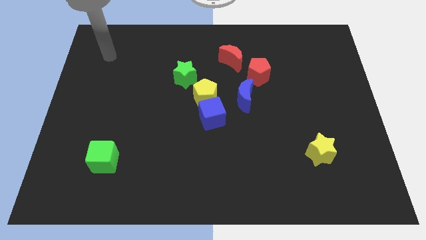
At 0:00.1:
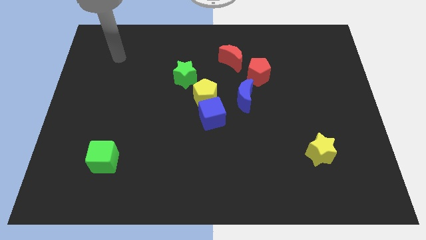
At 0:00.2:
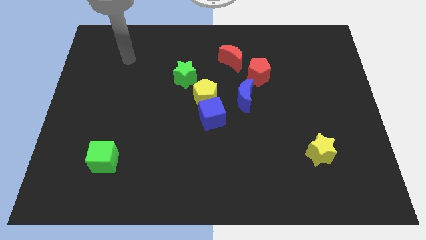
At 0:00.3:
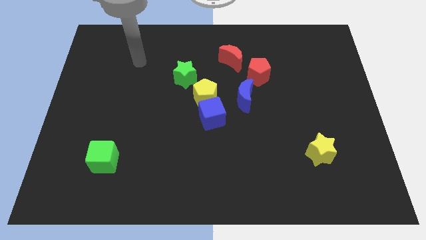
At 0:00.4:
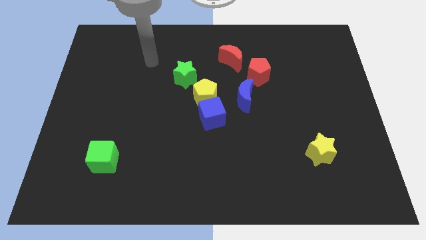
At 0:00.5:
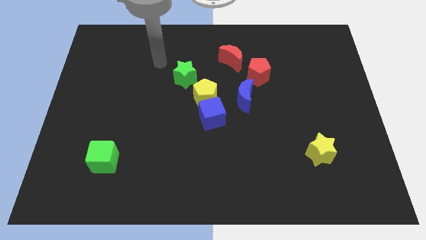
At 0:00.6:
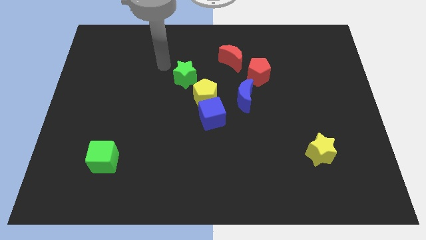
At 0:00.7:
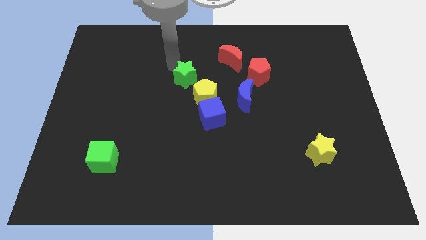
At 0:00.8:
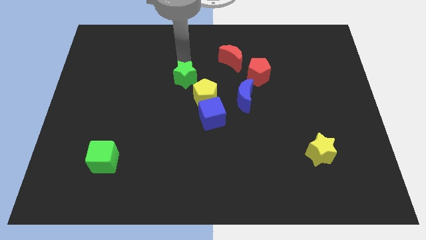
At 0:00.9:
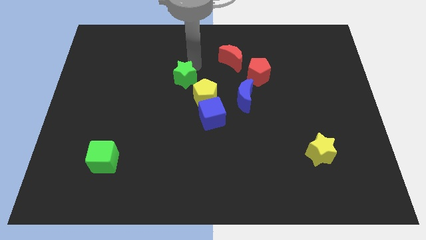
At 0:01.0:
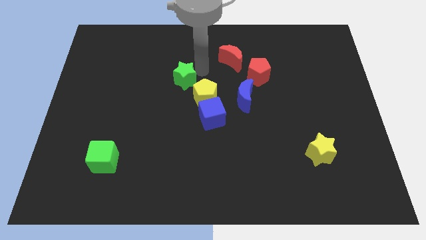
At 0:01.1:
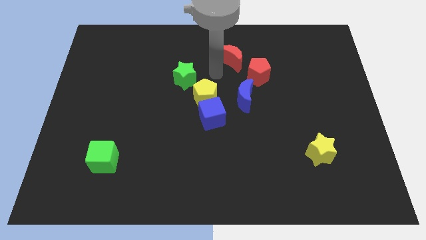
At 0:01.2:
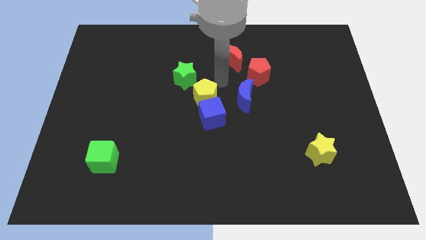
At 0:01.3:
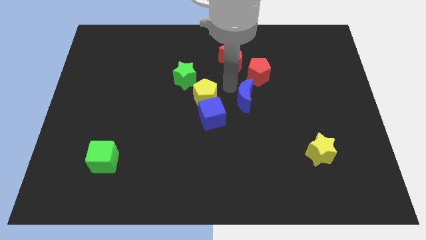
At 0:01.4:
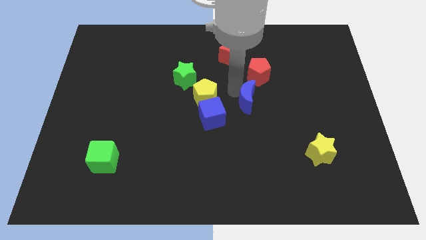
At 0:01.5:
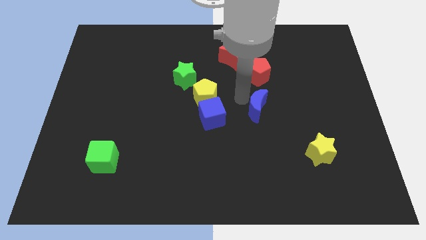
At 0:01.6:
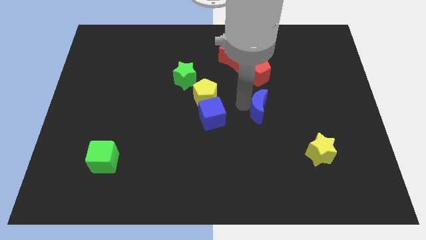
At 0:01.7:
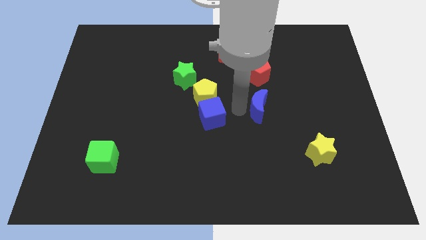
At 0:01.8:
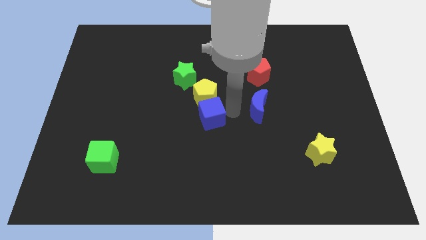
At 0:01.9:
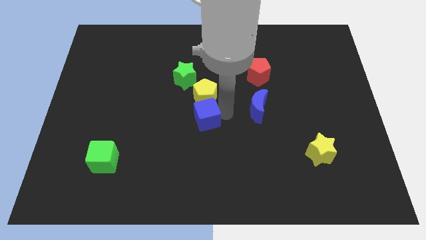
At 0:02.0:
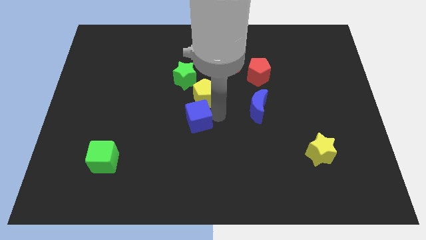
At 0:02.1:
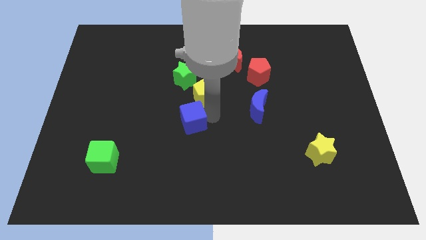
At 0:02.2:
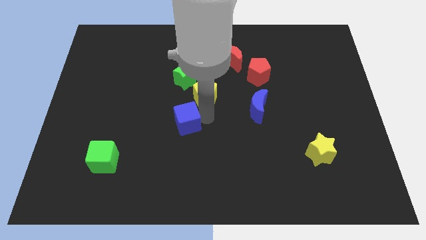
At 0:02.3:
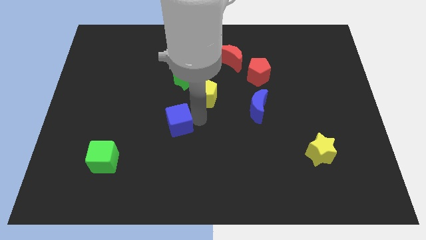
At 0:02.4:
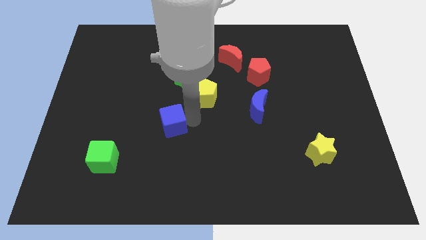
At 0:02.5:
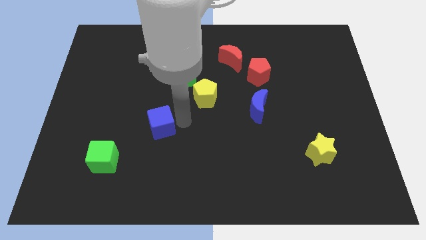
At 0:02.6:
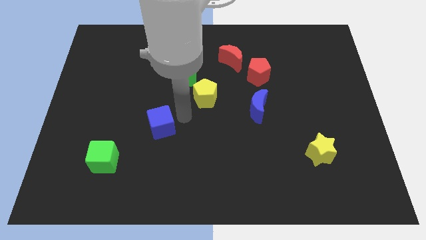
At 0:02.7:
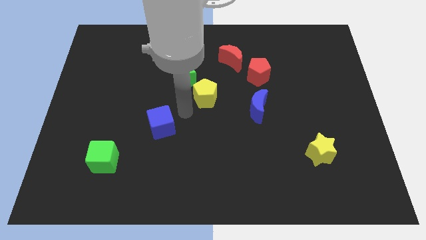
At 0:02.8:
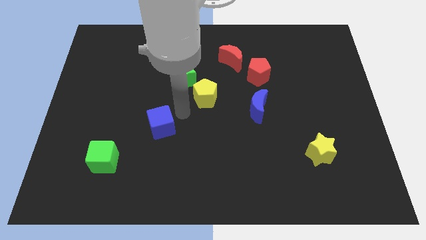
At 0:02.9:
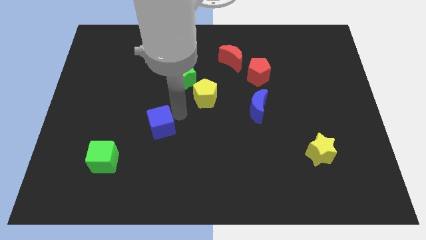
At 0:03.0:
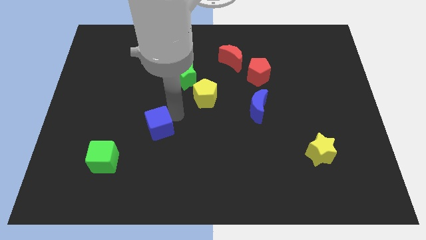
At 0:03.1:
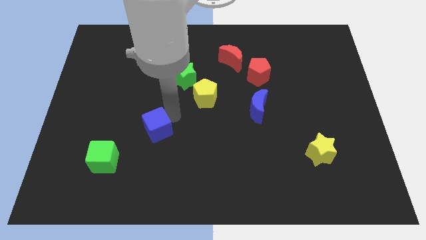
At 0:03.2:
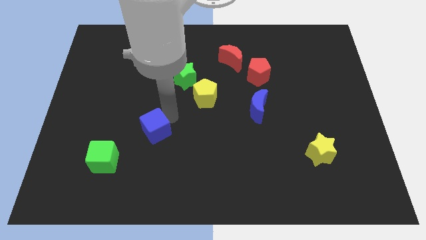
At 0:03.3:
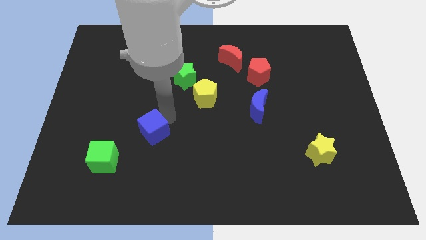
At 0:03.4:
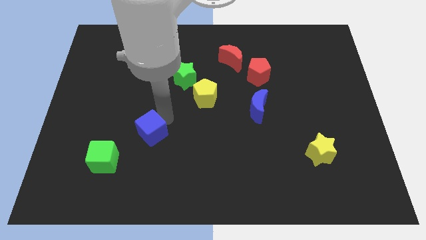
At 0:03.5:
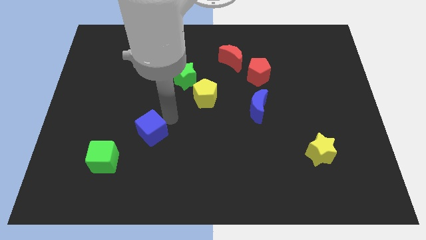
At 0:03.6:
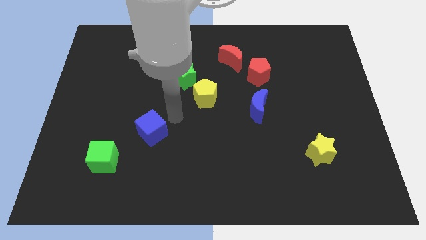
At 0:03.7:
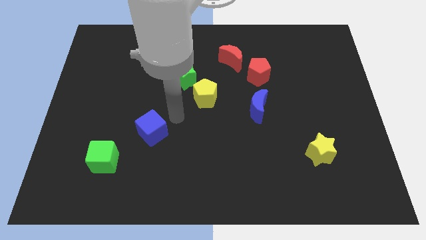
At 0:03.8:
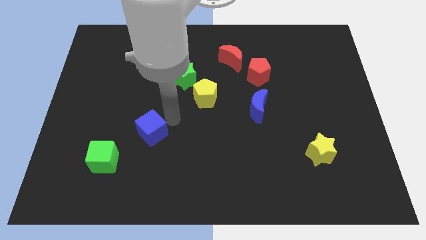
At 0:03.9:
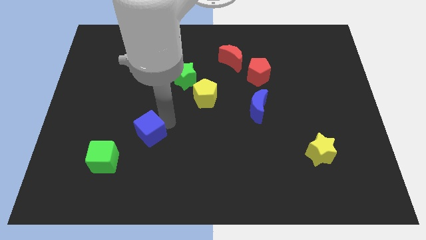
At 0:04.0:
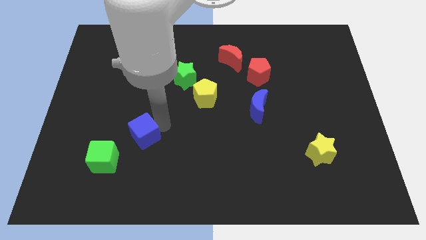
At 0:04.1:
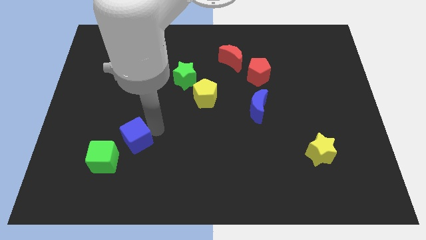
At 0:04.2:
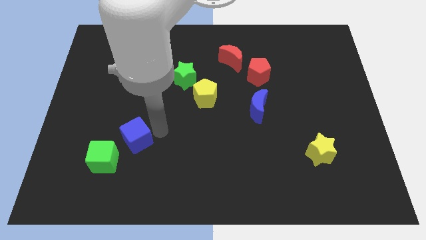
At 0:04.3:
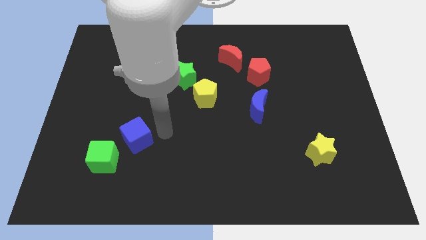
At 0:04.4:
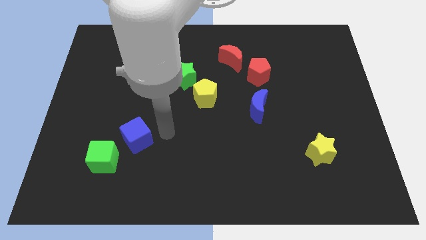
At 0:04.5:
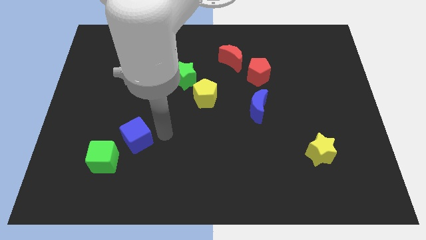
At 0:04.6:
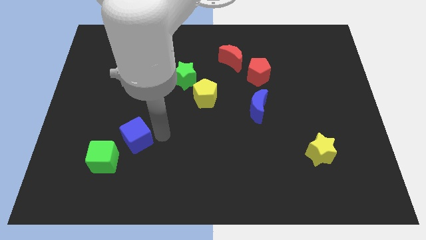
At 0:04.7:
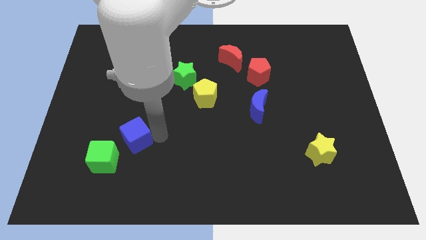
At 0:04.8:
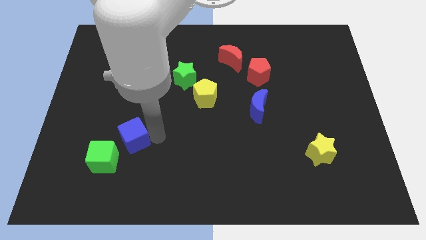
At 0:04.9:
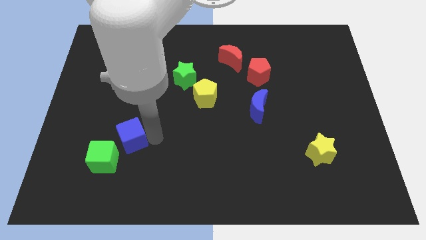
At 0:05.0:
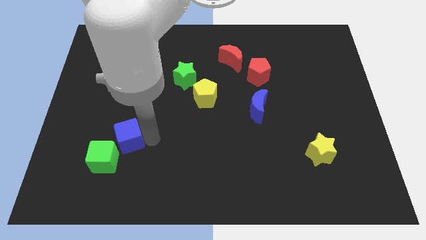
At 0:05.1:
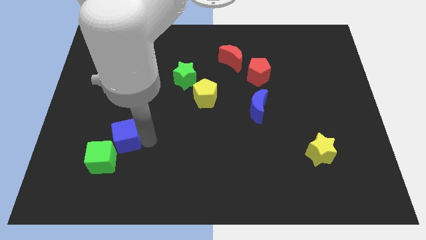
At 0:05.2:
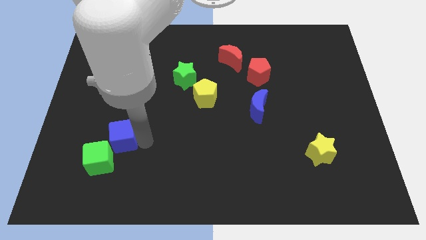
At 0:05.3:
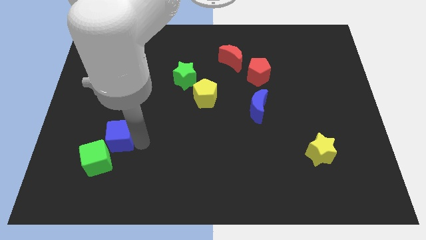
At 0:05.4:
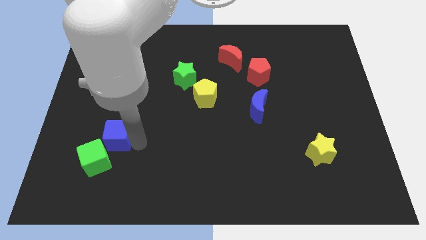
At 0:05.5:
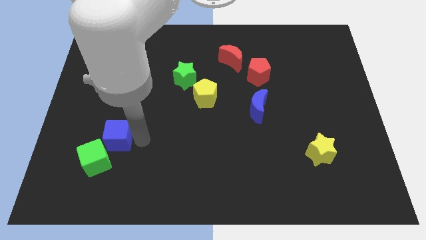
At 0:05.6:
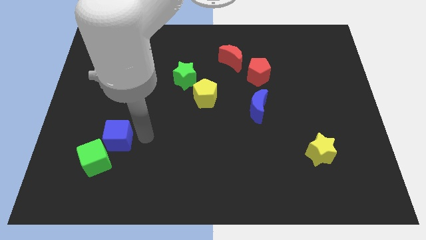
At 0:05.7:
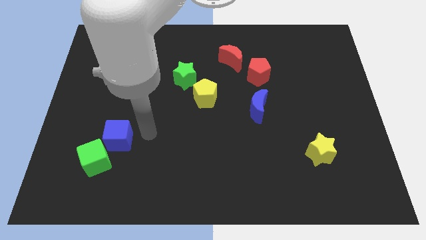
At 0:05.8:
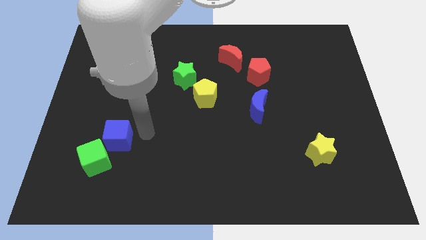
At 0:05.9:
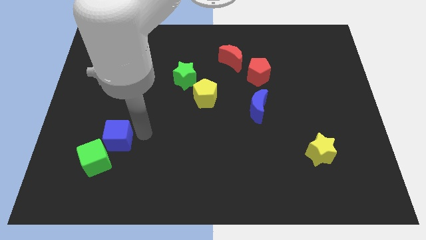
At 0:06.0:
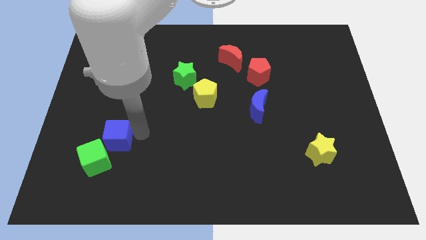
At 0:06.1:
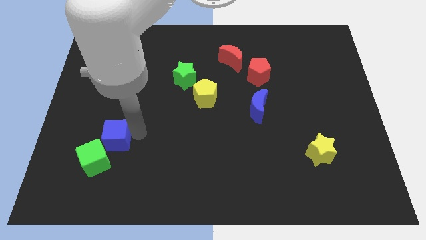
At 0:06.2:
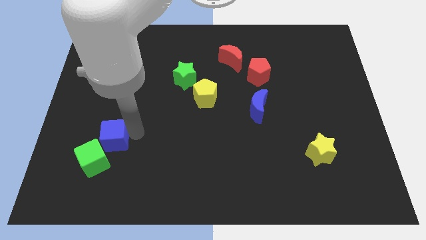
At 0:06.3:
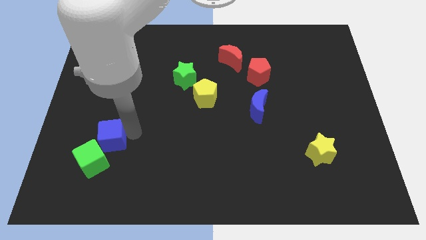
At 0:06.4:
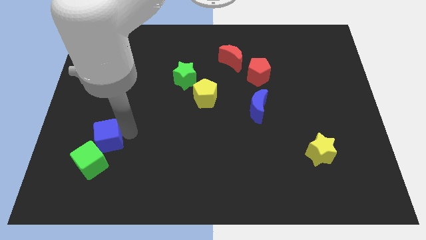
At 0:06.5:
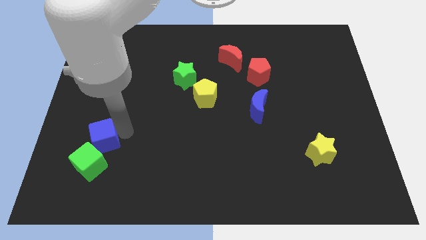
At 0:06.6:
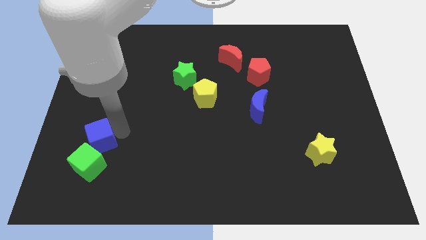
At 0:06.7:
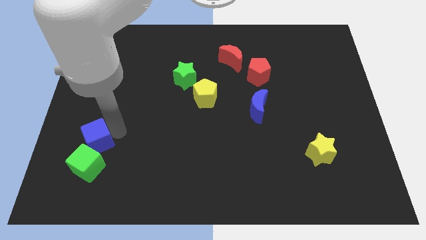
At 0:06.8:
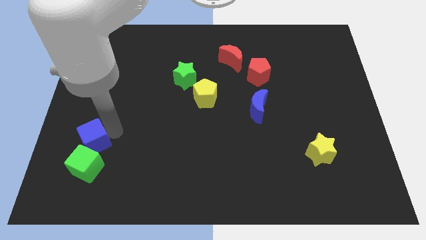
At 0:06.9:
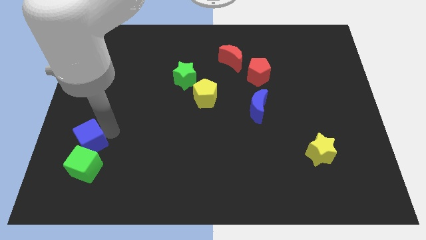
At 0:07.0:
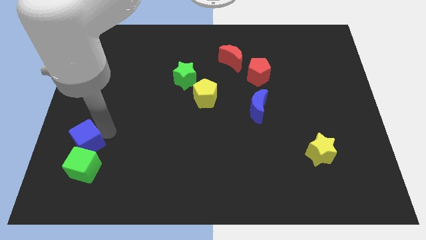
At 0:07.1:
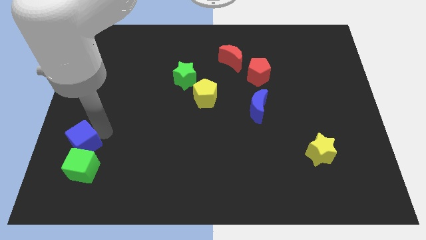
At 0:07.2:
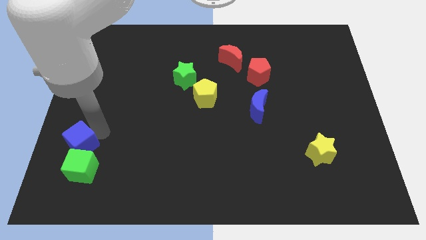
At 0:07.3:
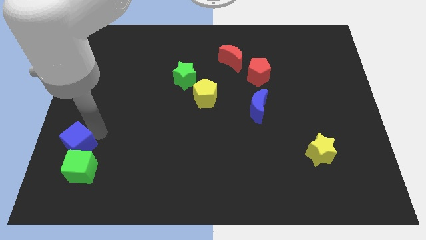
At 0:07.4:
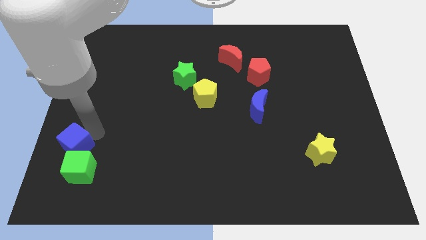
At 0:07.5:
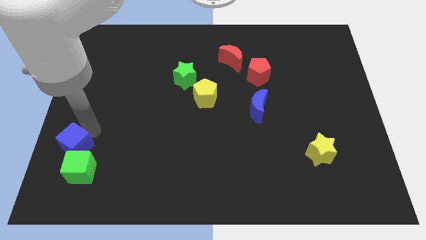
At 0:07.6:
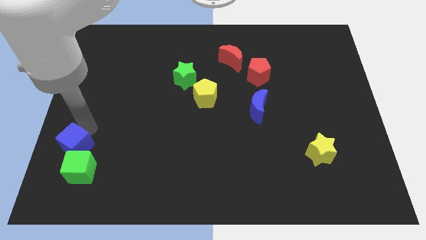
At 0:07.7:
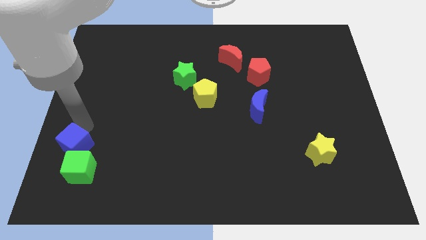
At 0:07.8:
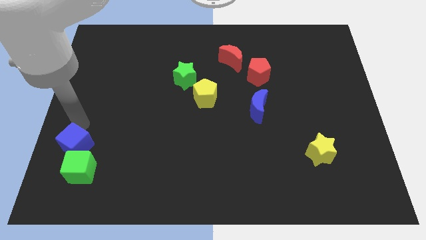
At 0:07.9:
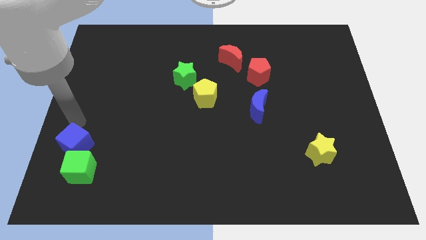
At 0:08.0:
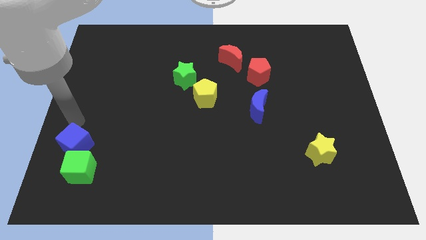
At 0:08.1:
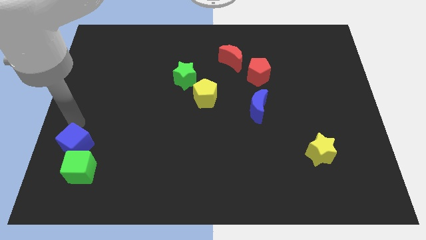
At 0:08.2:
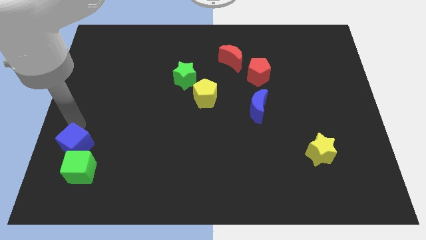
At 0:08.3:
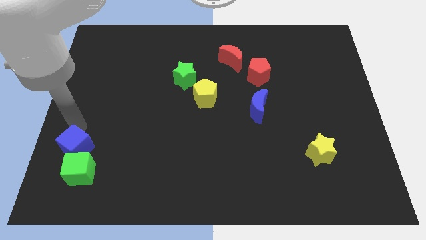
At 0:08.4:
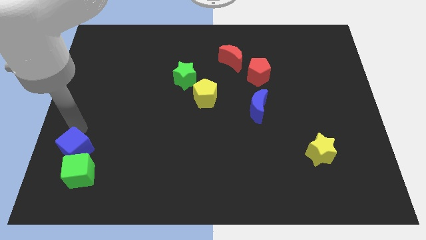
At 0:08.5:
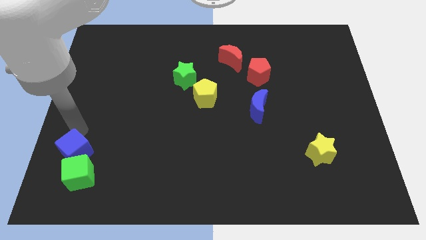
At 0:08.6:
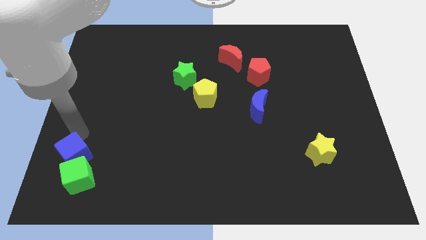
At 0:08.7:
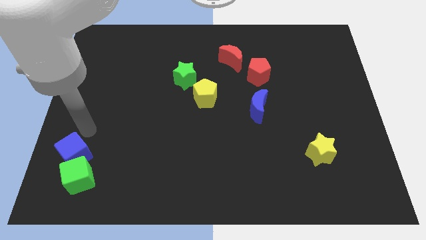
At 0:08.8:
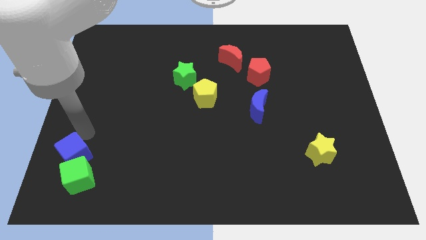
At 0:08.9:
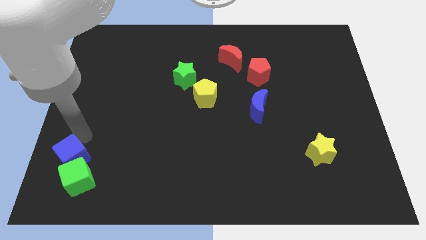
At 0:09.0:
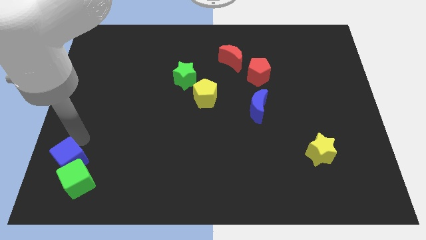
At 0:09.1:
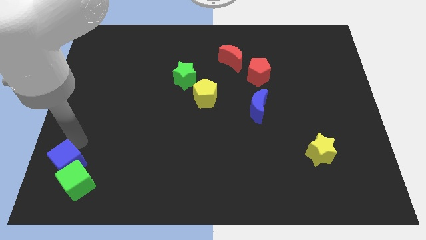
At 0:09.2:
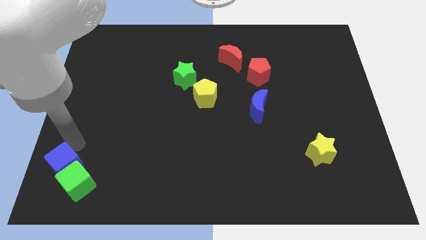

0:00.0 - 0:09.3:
move the blue cube to the bottom left
